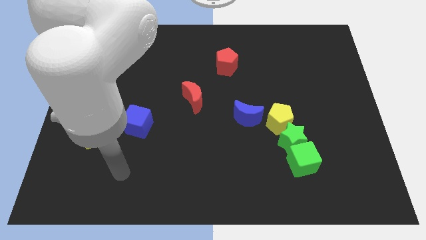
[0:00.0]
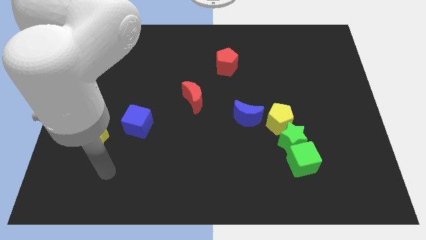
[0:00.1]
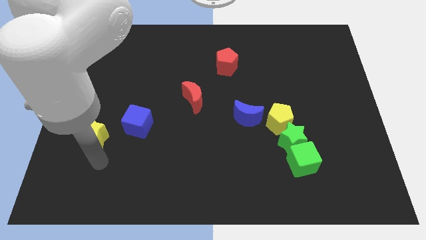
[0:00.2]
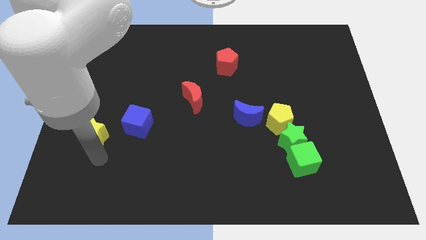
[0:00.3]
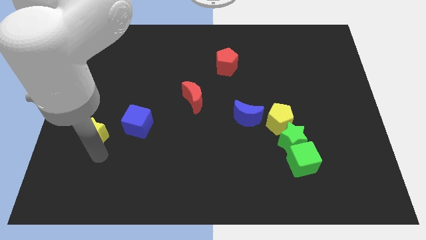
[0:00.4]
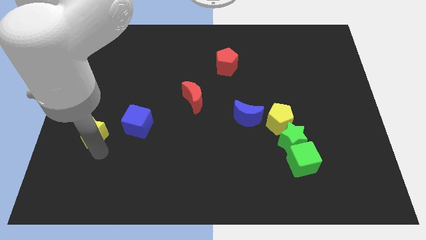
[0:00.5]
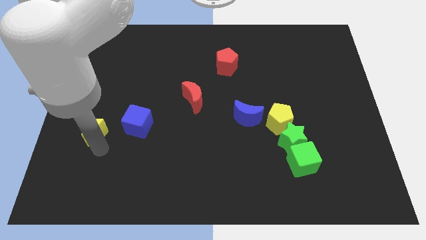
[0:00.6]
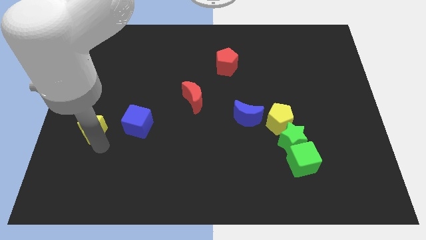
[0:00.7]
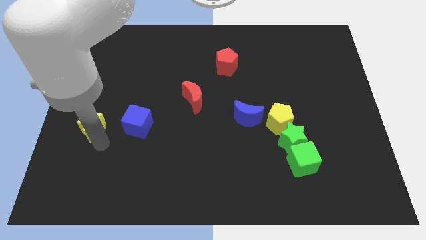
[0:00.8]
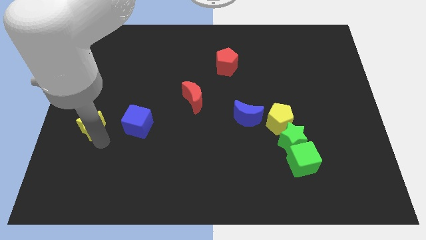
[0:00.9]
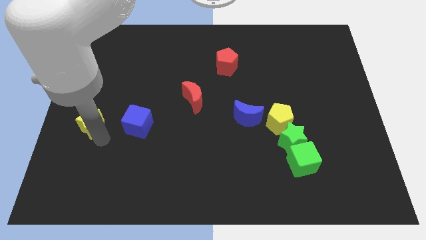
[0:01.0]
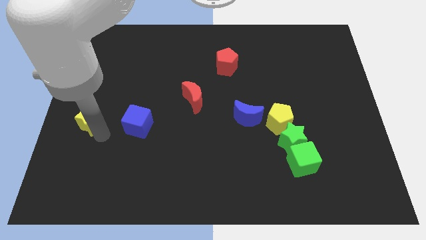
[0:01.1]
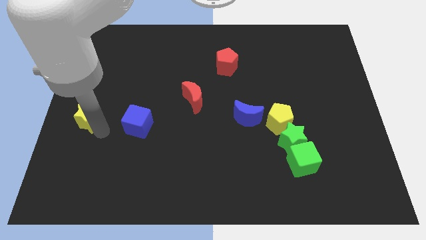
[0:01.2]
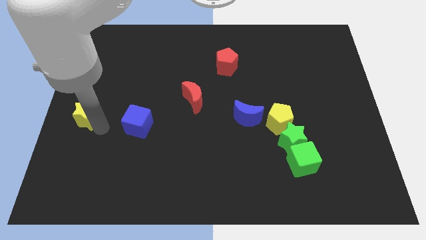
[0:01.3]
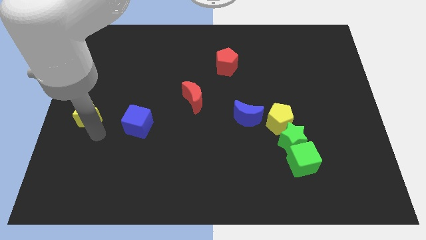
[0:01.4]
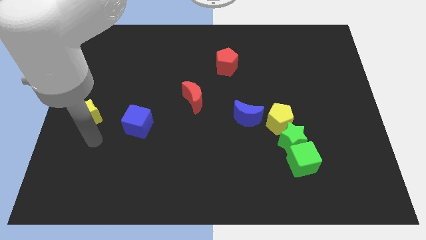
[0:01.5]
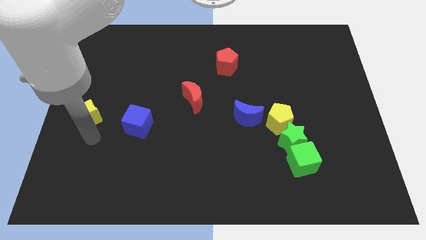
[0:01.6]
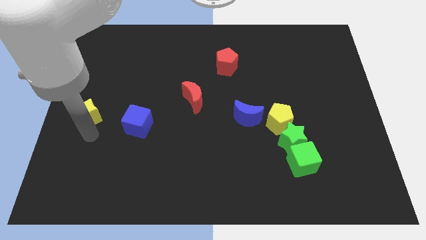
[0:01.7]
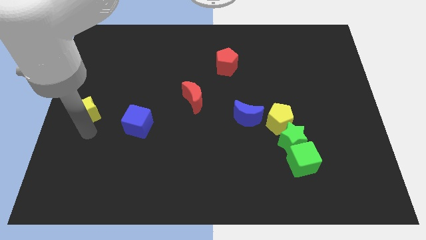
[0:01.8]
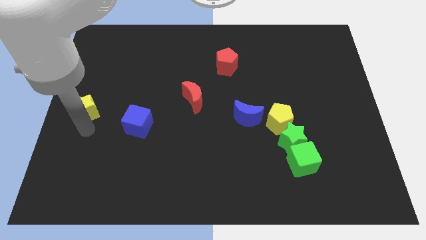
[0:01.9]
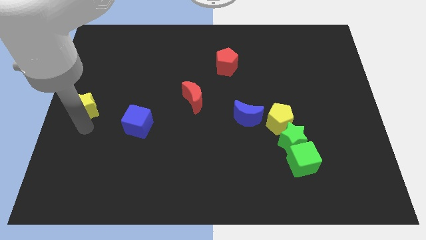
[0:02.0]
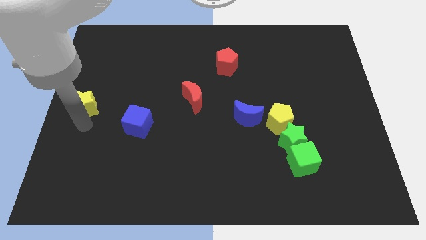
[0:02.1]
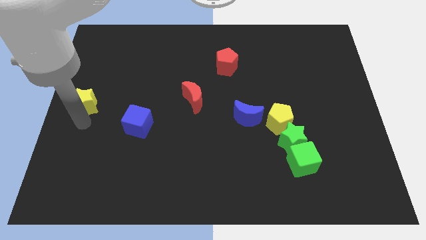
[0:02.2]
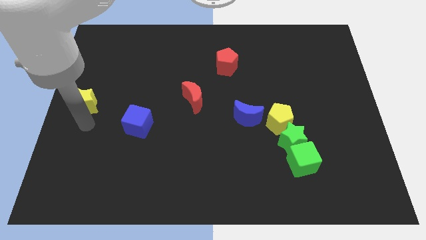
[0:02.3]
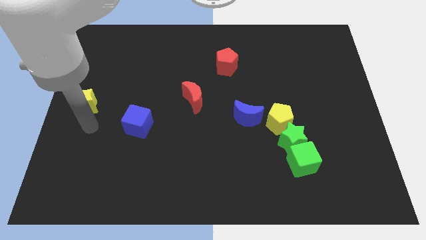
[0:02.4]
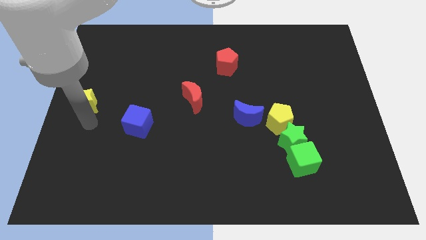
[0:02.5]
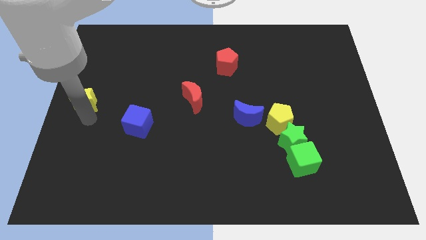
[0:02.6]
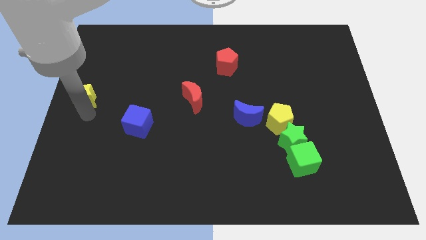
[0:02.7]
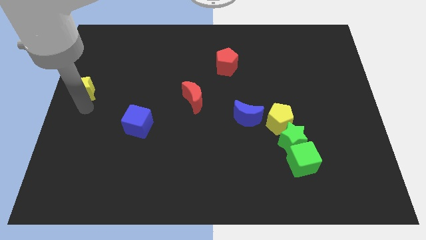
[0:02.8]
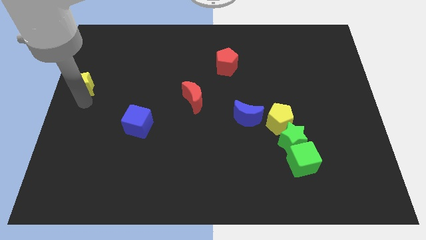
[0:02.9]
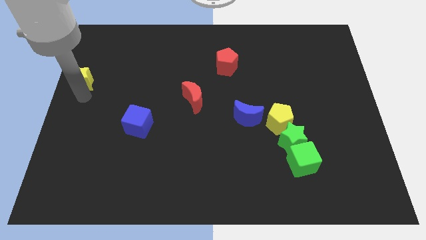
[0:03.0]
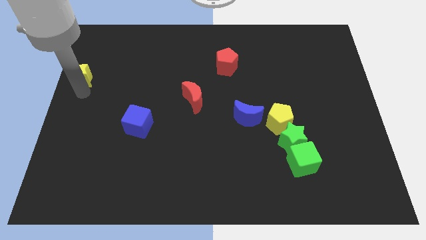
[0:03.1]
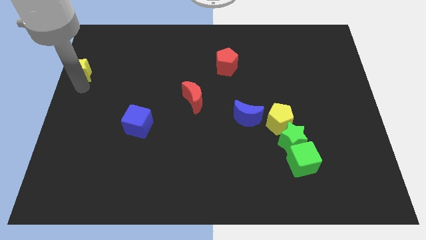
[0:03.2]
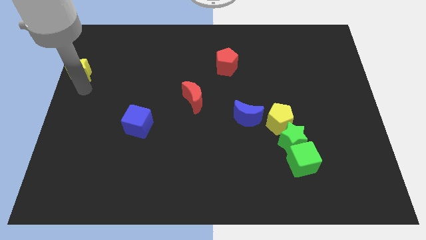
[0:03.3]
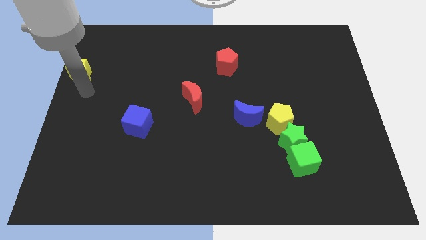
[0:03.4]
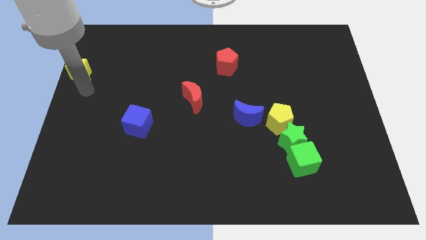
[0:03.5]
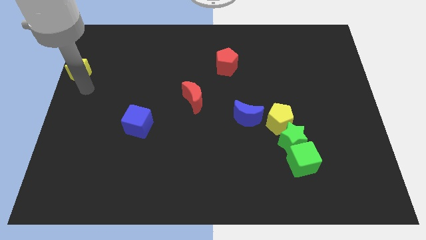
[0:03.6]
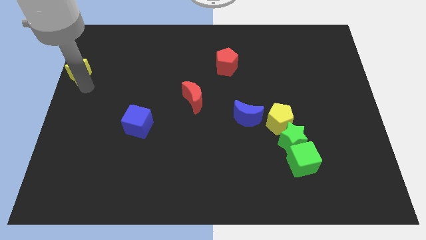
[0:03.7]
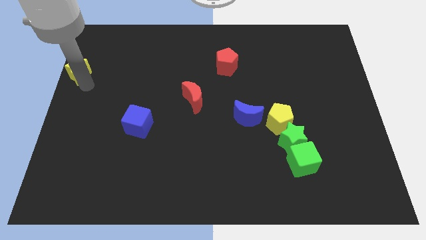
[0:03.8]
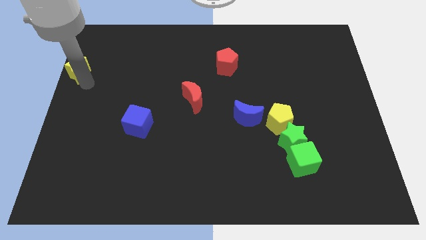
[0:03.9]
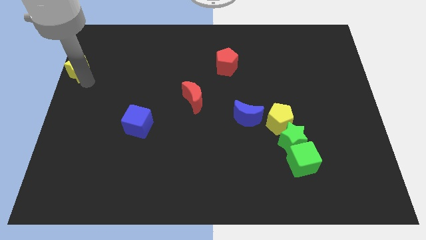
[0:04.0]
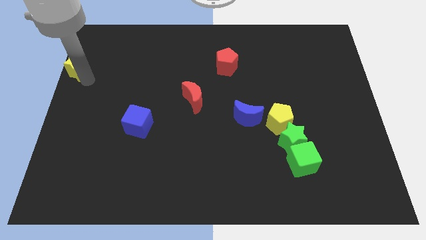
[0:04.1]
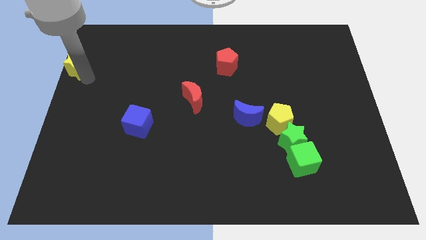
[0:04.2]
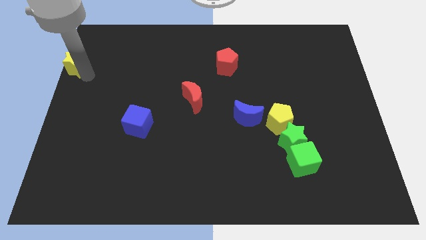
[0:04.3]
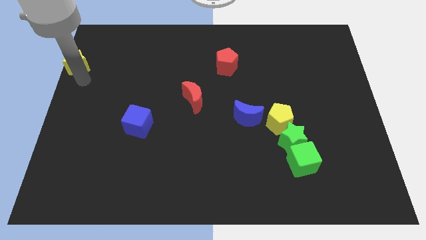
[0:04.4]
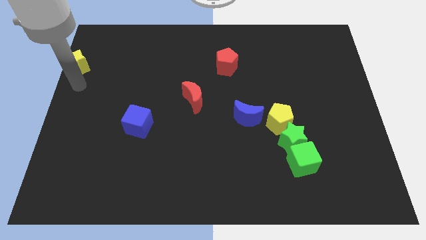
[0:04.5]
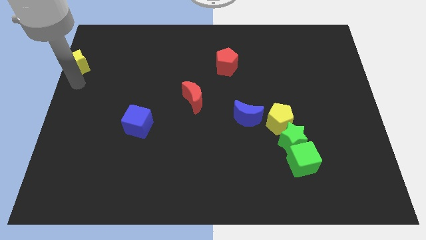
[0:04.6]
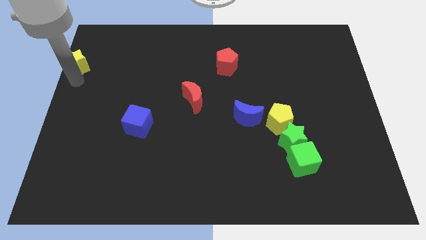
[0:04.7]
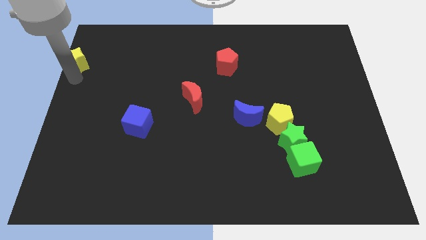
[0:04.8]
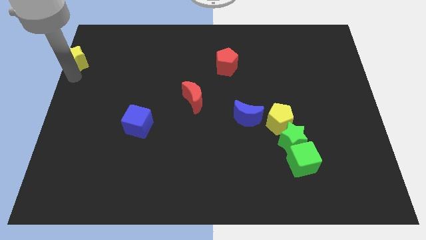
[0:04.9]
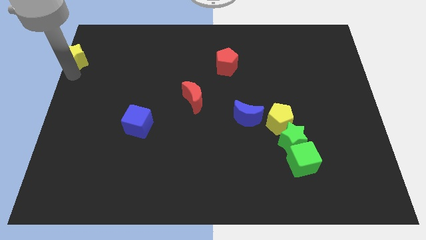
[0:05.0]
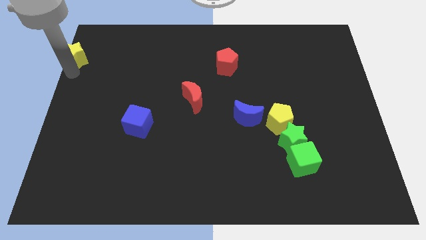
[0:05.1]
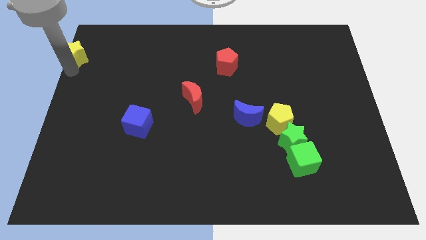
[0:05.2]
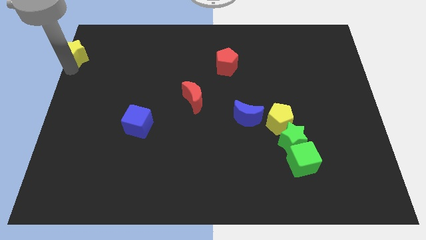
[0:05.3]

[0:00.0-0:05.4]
move the yellow star to the top left corner

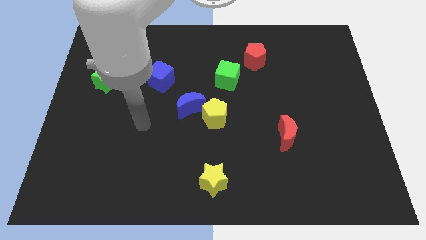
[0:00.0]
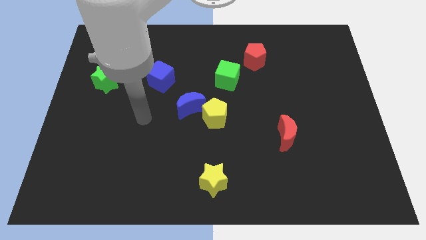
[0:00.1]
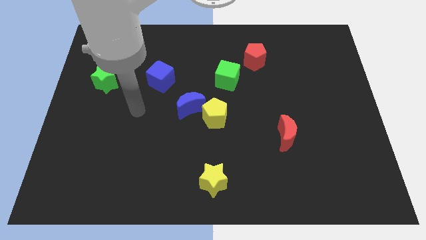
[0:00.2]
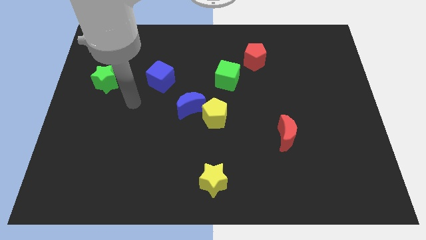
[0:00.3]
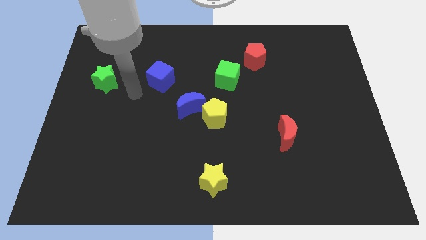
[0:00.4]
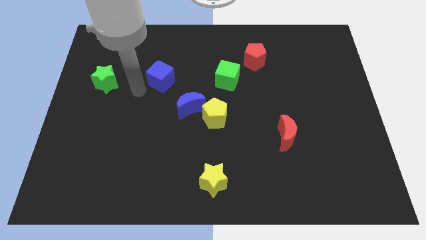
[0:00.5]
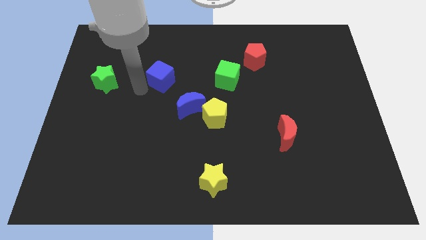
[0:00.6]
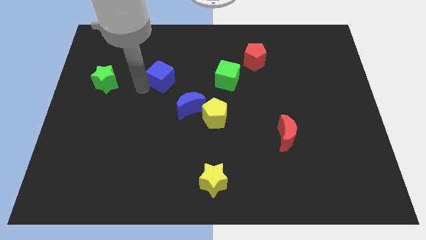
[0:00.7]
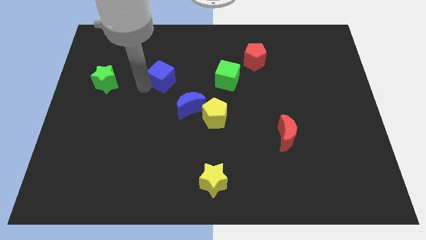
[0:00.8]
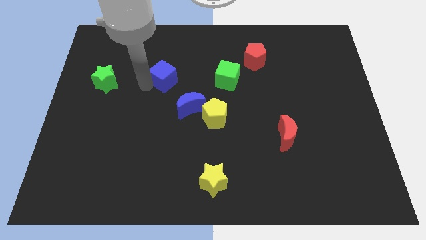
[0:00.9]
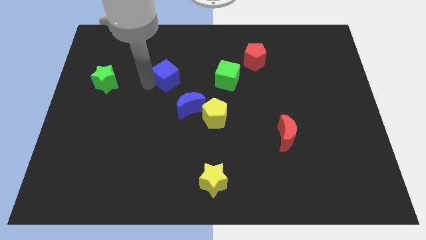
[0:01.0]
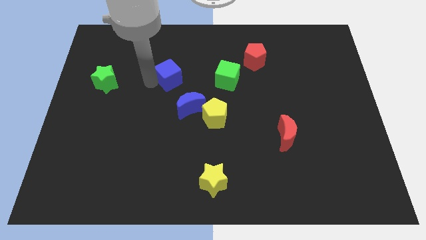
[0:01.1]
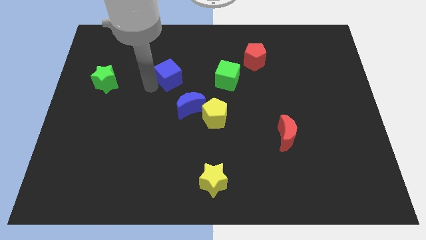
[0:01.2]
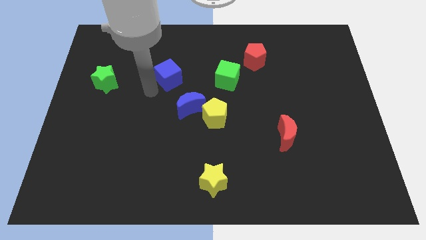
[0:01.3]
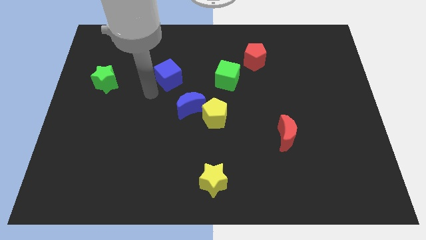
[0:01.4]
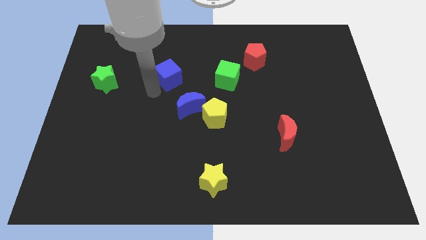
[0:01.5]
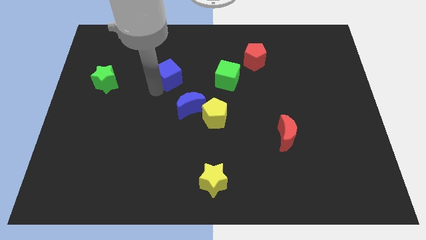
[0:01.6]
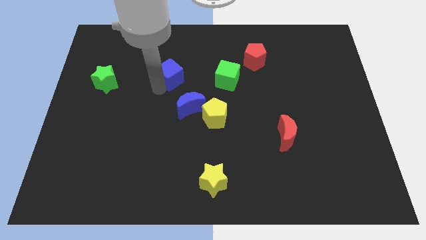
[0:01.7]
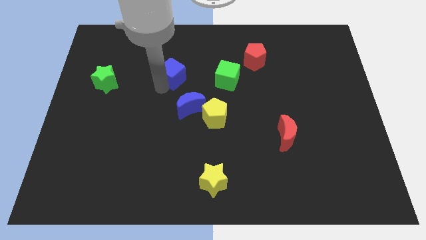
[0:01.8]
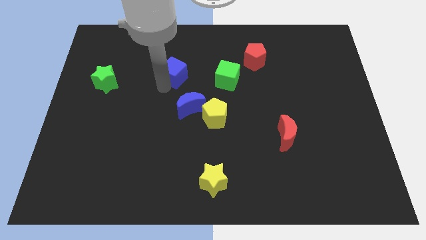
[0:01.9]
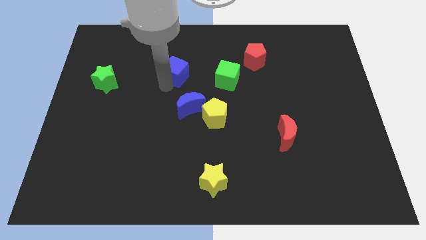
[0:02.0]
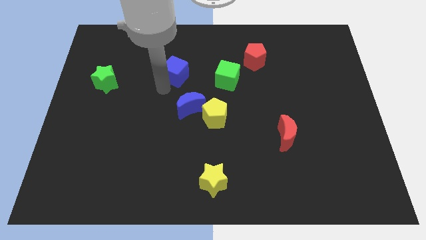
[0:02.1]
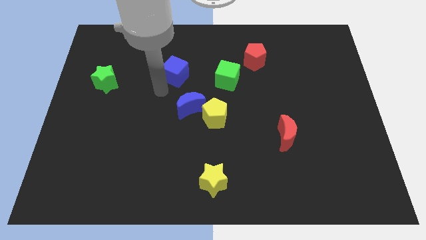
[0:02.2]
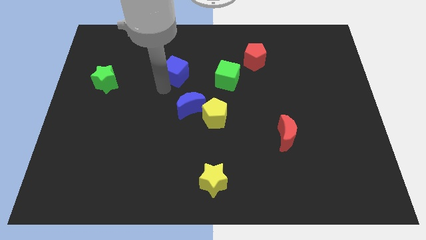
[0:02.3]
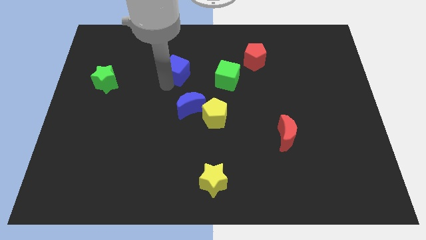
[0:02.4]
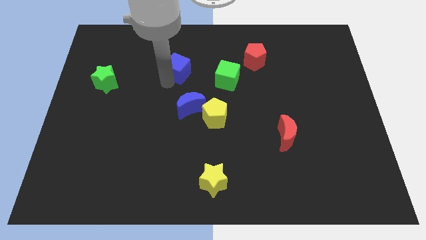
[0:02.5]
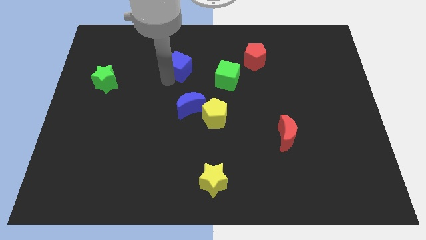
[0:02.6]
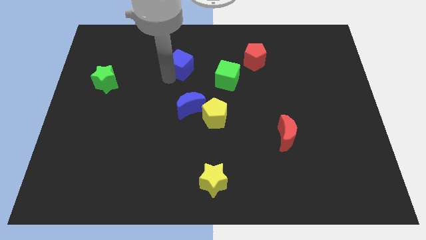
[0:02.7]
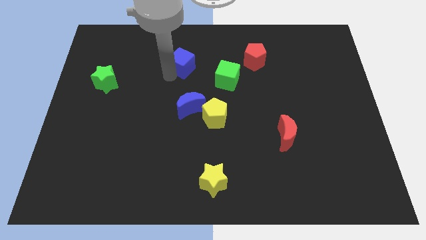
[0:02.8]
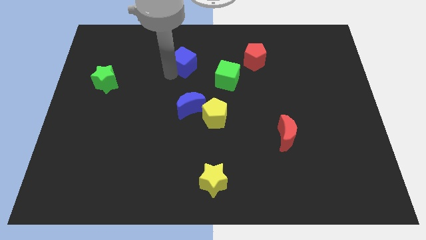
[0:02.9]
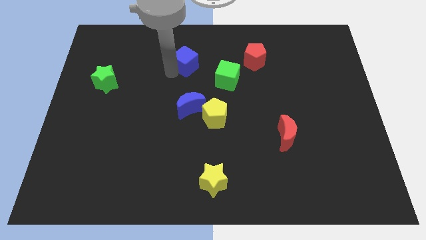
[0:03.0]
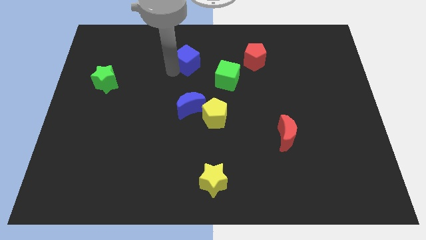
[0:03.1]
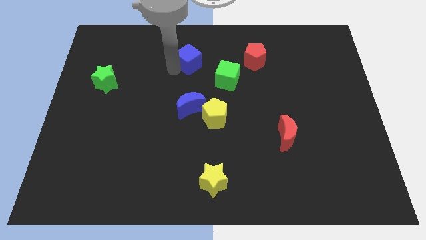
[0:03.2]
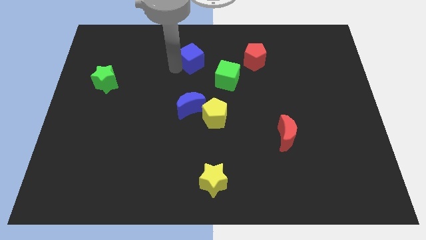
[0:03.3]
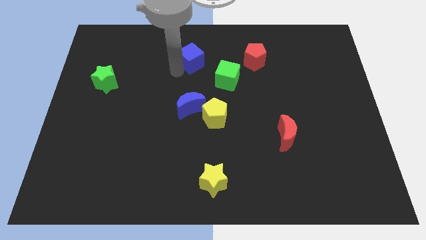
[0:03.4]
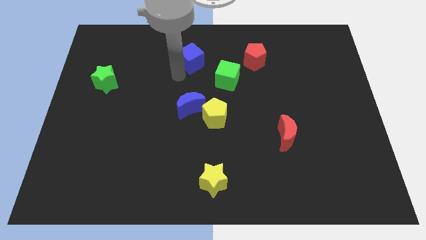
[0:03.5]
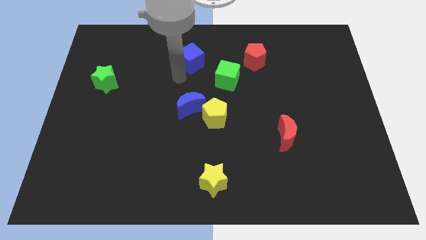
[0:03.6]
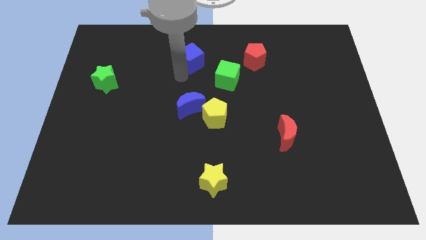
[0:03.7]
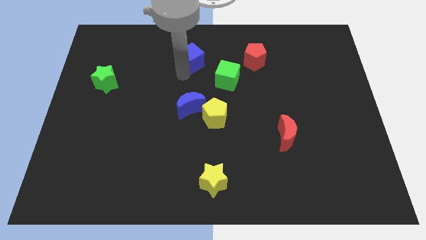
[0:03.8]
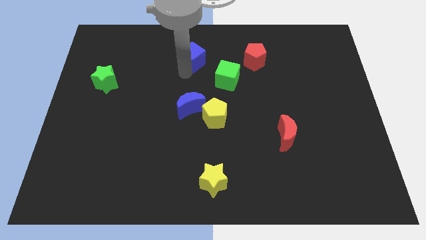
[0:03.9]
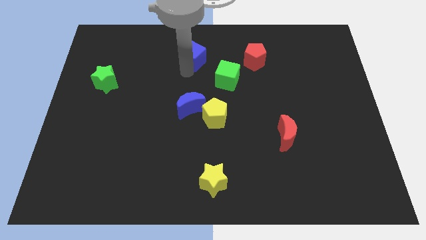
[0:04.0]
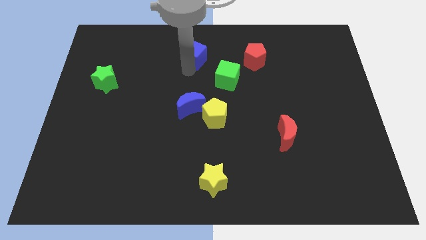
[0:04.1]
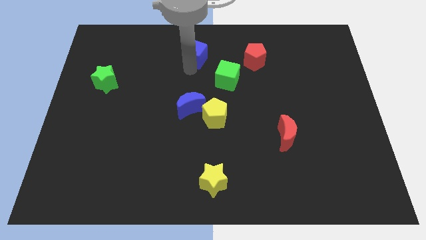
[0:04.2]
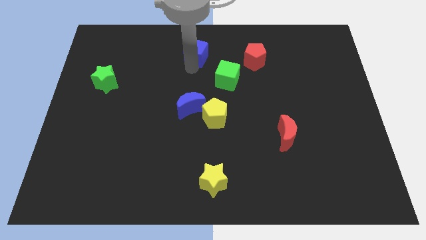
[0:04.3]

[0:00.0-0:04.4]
move the blue cube to the top
